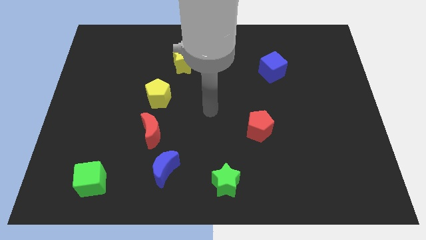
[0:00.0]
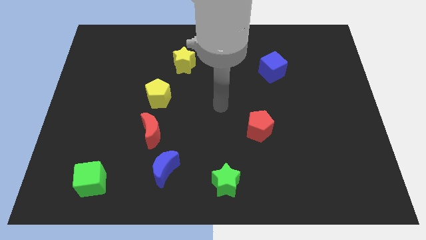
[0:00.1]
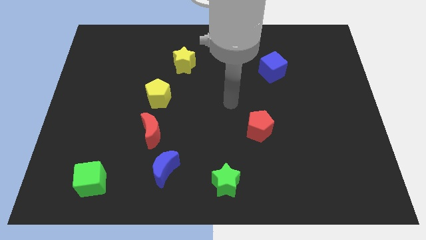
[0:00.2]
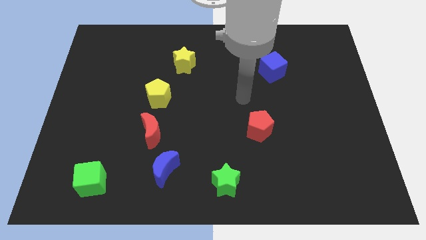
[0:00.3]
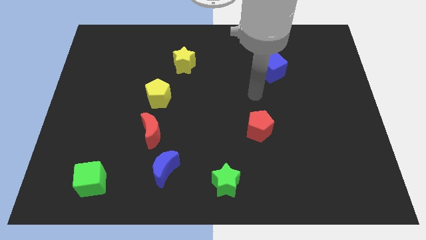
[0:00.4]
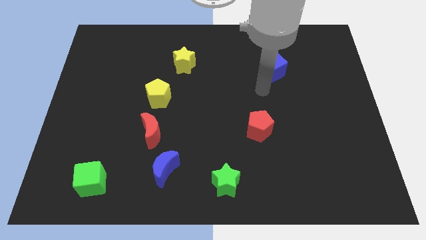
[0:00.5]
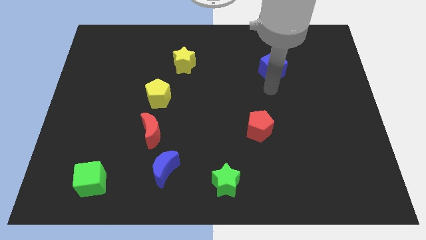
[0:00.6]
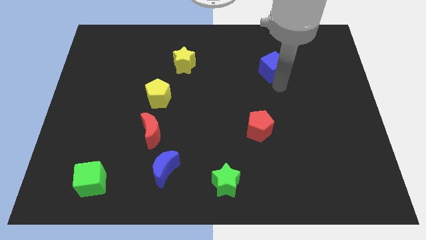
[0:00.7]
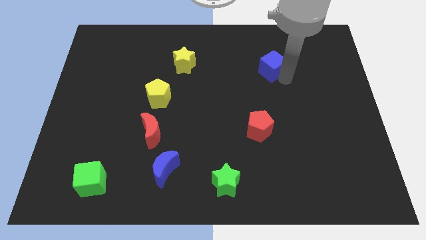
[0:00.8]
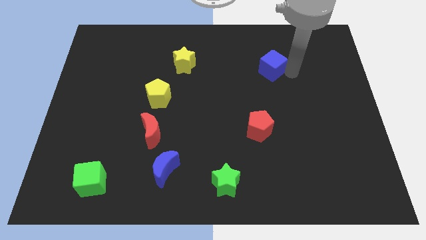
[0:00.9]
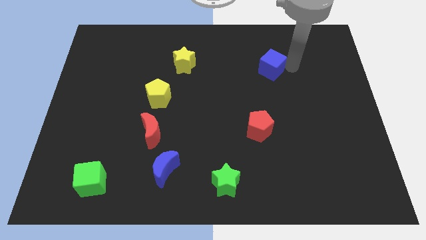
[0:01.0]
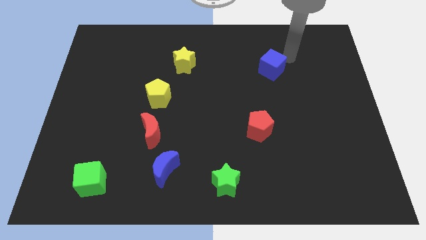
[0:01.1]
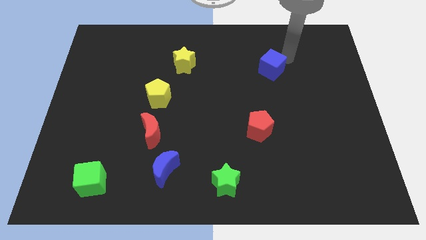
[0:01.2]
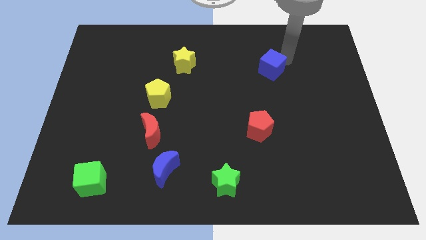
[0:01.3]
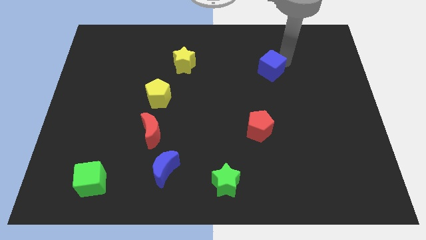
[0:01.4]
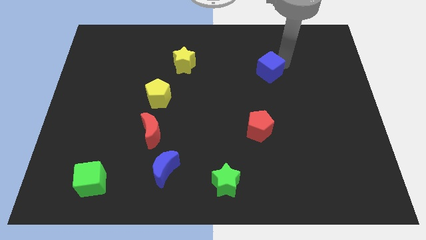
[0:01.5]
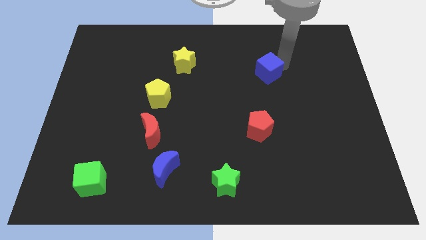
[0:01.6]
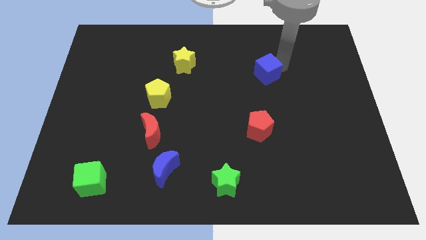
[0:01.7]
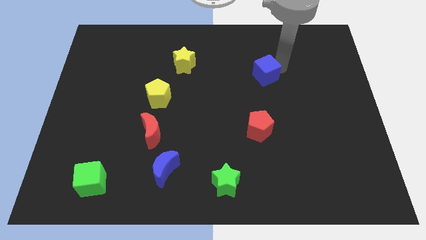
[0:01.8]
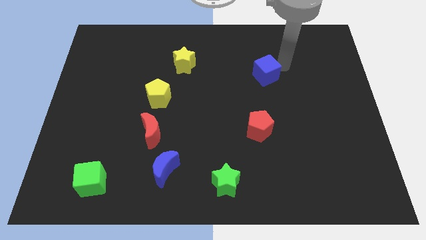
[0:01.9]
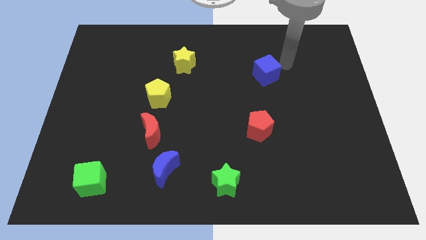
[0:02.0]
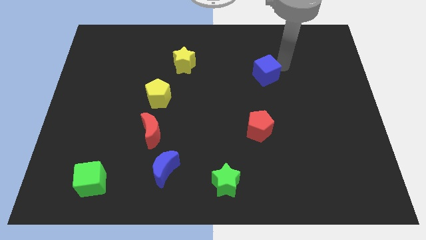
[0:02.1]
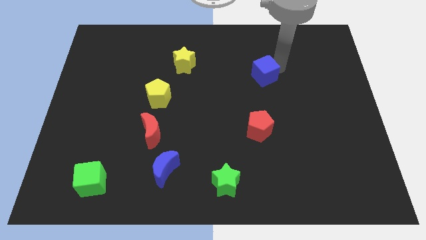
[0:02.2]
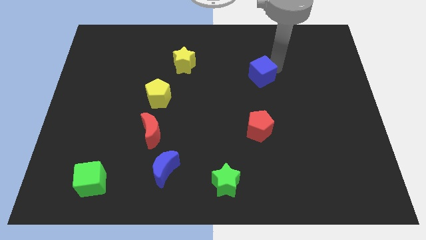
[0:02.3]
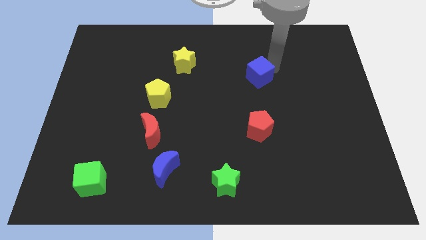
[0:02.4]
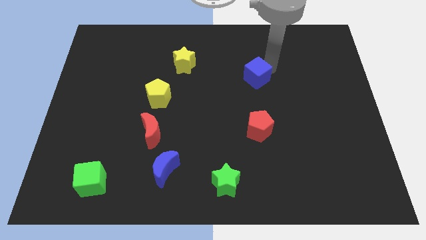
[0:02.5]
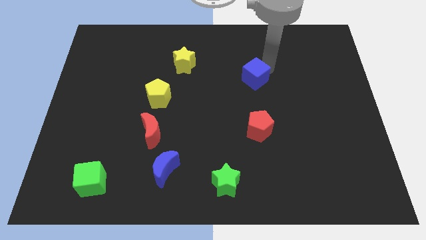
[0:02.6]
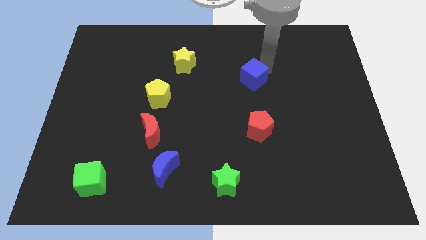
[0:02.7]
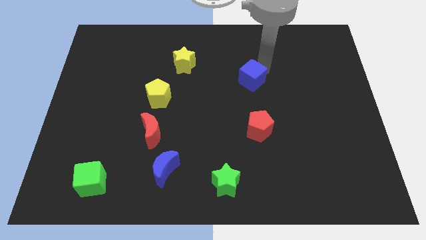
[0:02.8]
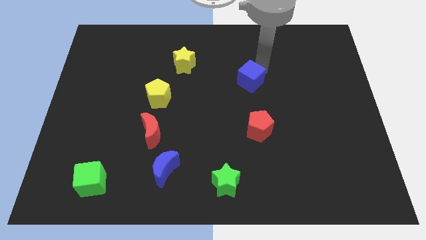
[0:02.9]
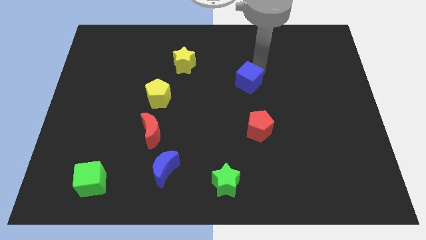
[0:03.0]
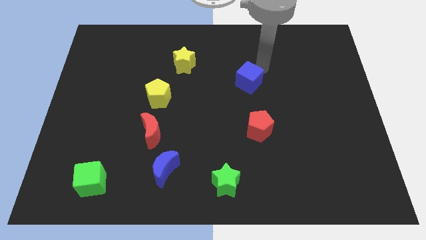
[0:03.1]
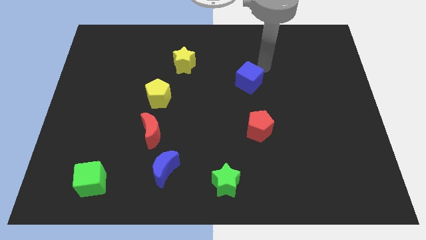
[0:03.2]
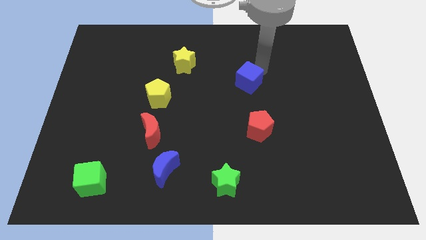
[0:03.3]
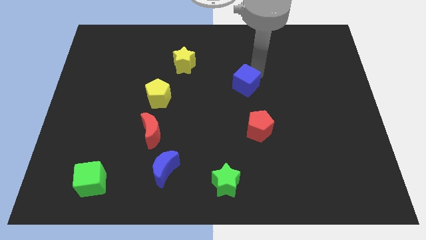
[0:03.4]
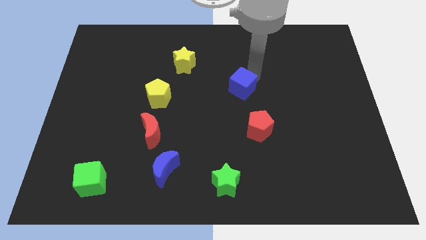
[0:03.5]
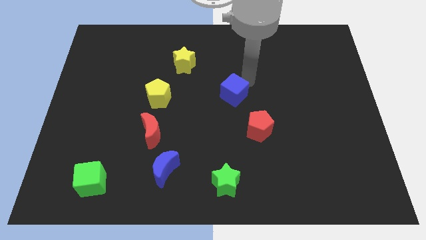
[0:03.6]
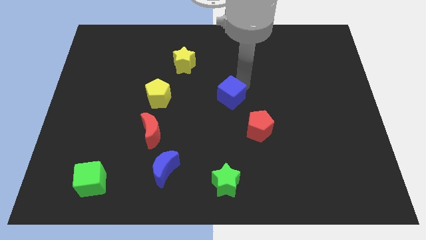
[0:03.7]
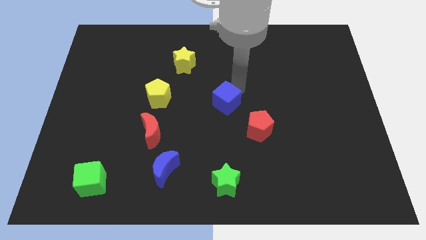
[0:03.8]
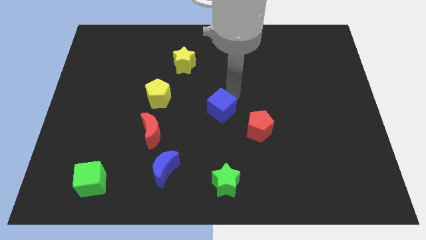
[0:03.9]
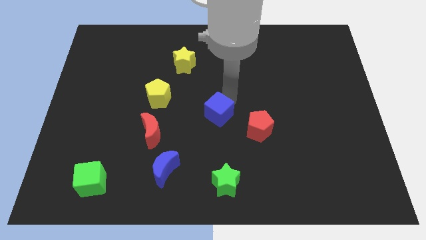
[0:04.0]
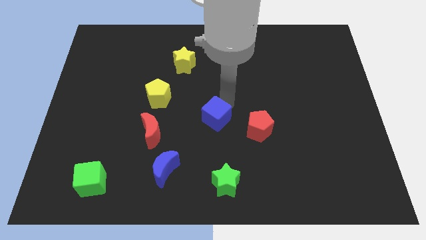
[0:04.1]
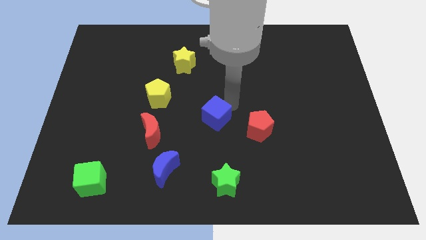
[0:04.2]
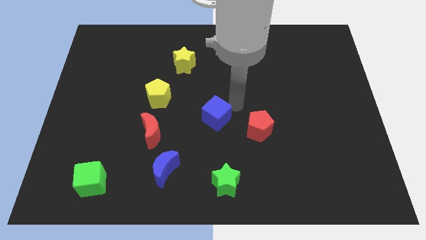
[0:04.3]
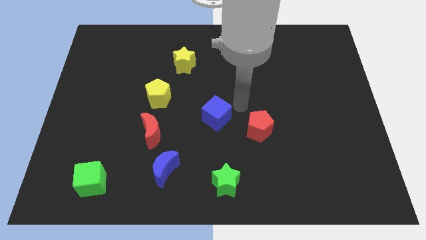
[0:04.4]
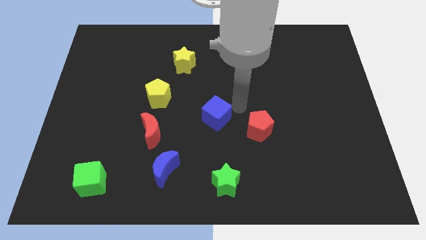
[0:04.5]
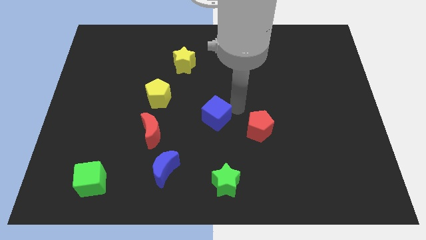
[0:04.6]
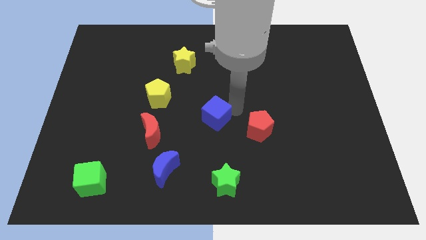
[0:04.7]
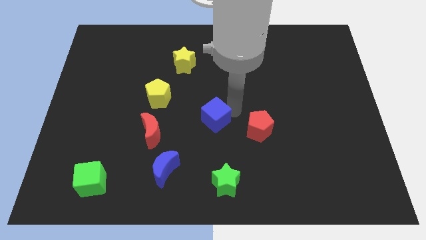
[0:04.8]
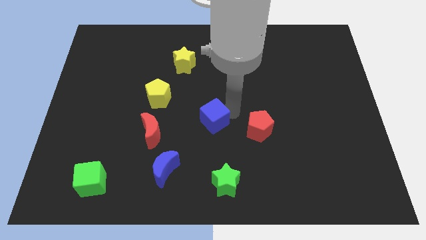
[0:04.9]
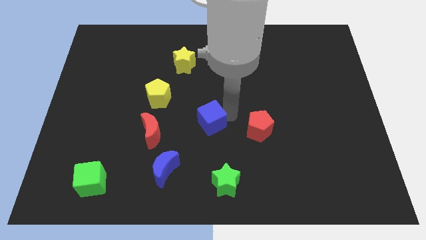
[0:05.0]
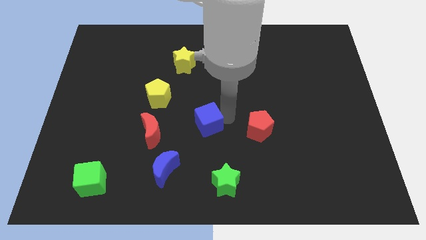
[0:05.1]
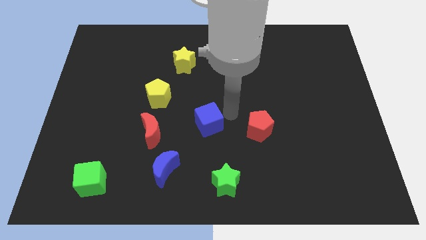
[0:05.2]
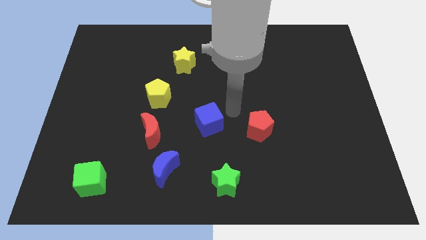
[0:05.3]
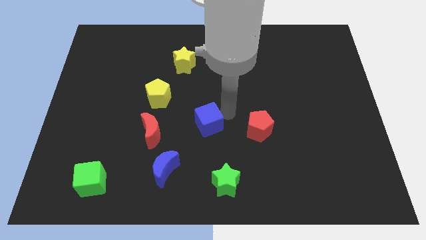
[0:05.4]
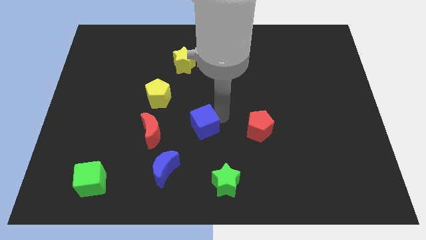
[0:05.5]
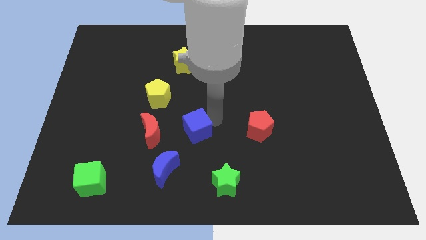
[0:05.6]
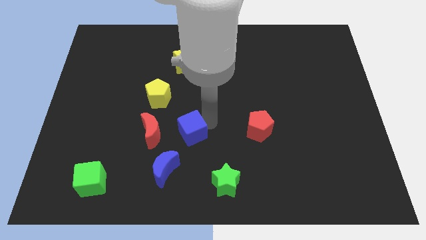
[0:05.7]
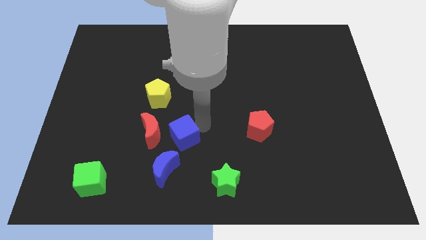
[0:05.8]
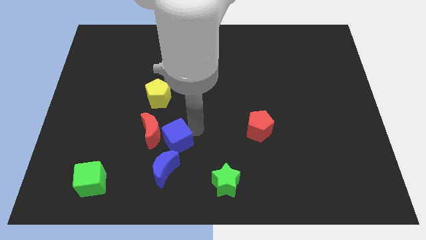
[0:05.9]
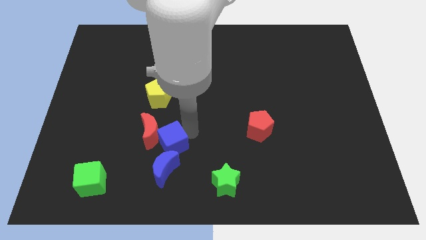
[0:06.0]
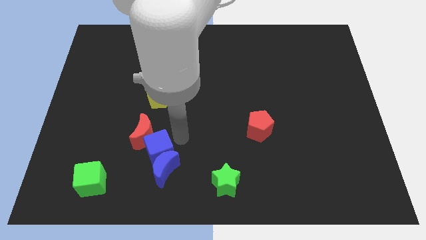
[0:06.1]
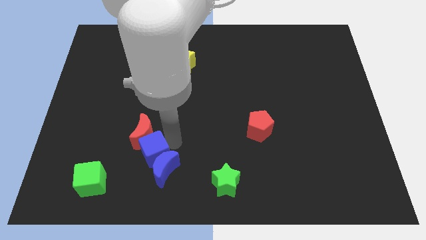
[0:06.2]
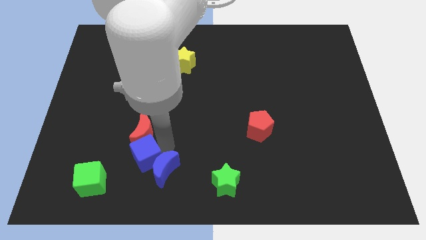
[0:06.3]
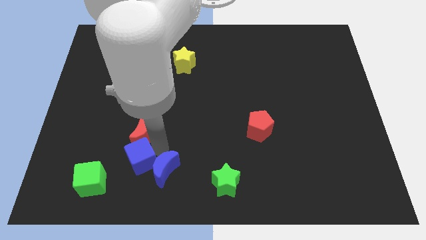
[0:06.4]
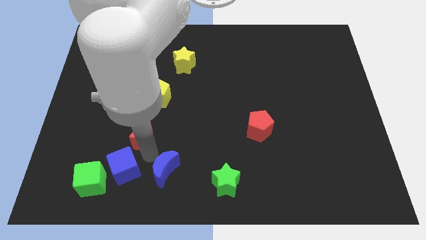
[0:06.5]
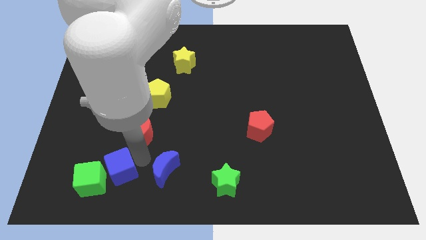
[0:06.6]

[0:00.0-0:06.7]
put the blue cube next to the green cube

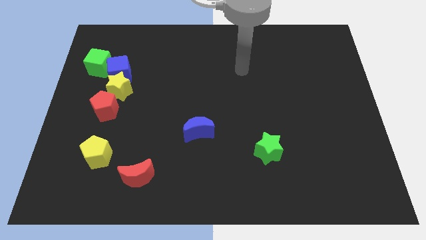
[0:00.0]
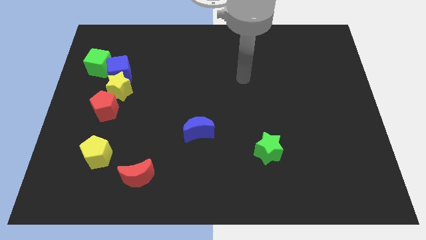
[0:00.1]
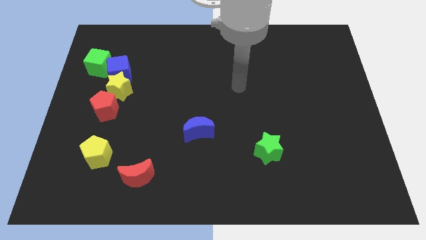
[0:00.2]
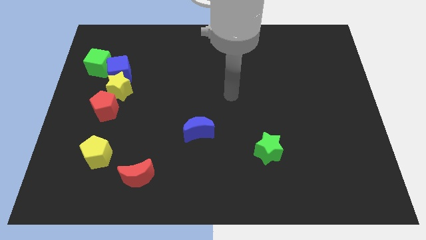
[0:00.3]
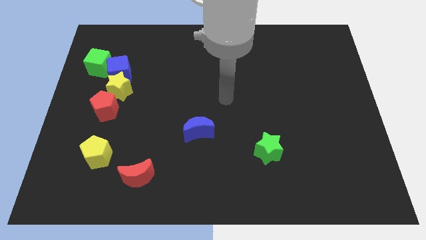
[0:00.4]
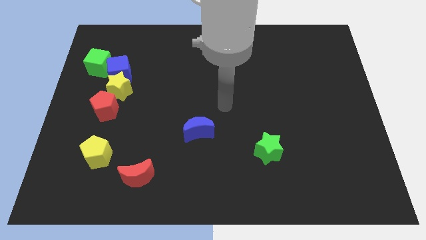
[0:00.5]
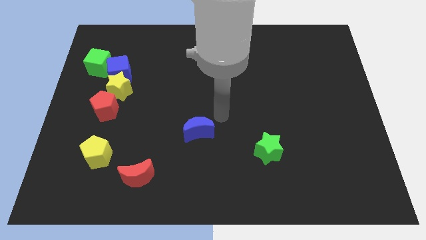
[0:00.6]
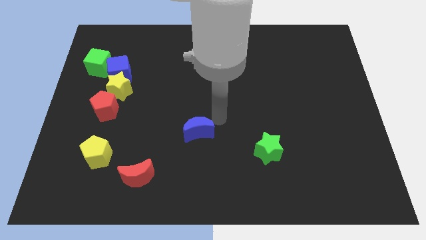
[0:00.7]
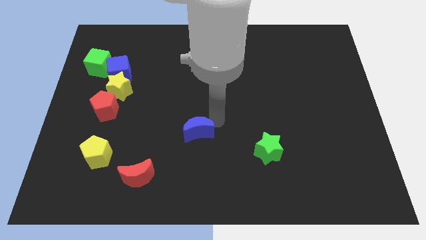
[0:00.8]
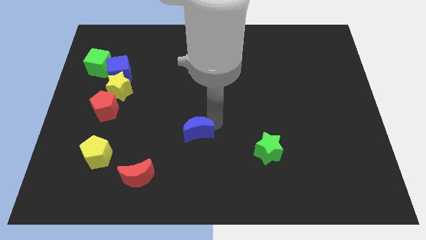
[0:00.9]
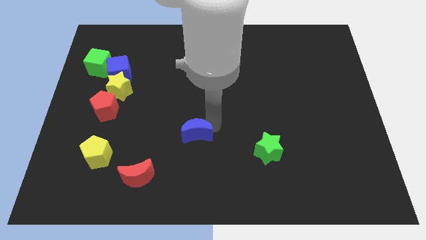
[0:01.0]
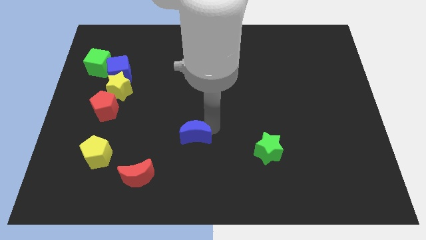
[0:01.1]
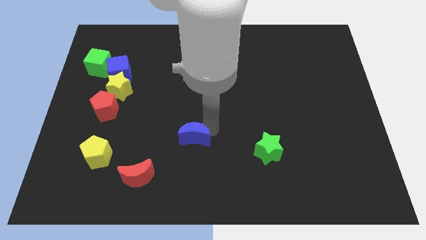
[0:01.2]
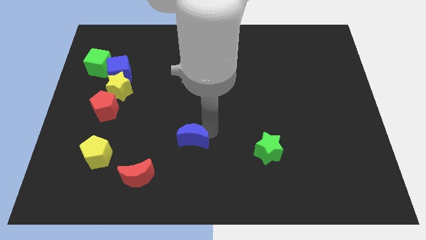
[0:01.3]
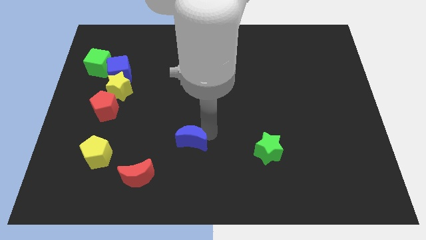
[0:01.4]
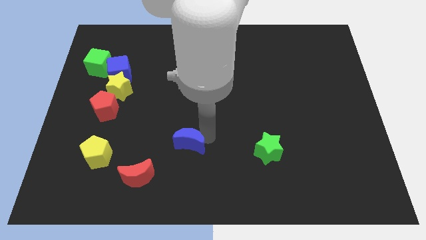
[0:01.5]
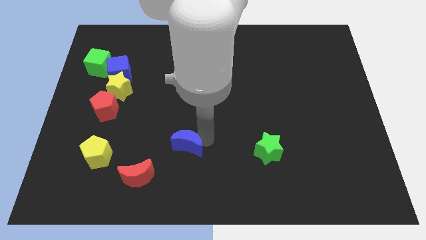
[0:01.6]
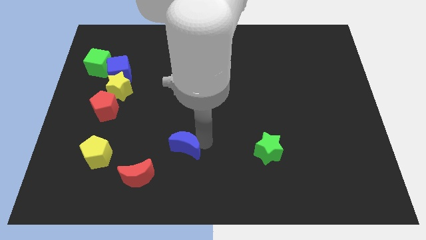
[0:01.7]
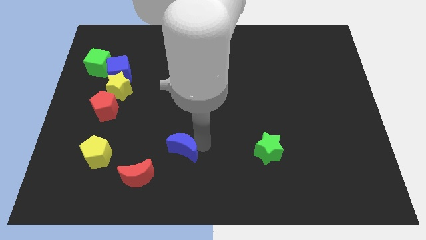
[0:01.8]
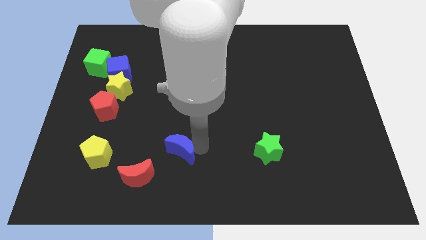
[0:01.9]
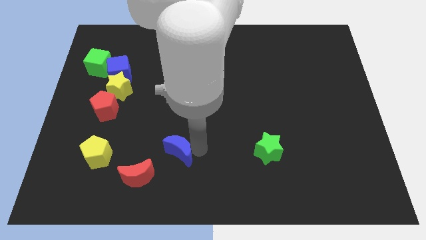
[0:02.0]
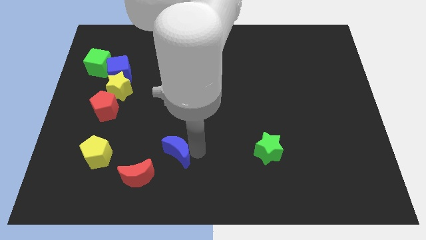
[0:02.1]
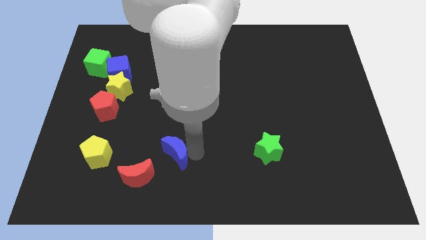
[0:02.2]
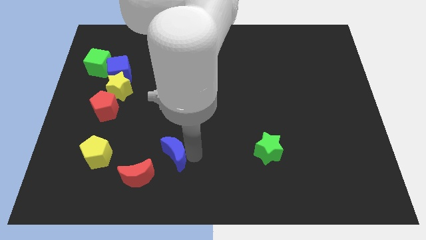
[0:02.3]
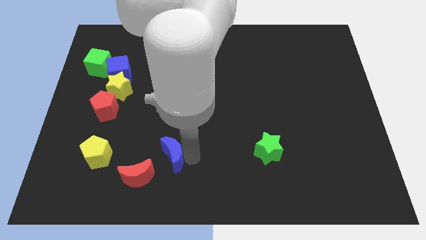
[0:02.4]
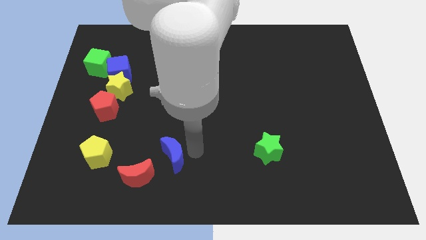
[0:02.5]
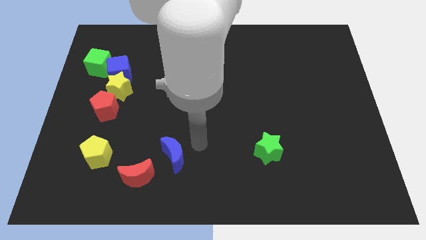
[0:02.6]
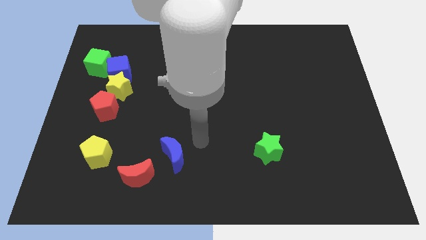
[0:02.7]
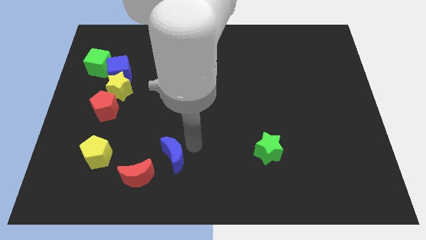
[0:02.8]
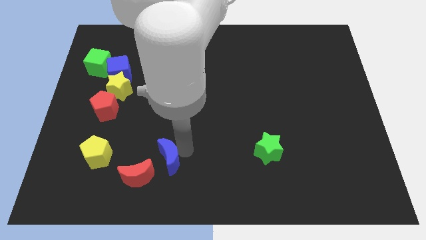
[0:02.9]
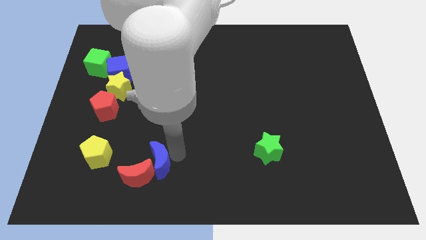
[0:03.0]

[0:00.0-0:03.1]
push the blue moon next to the red moon
